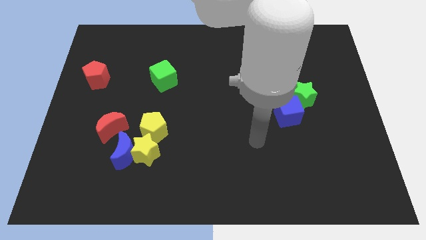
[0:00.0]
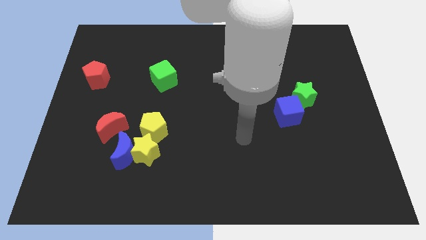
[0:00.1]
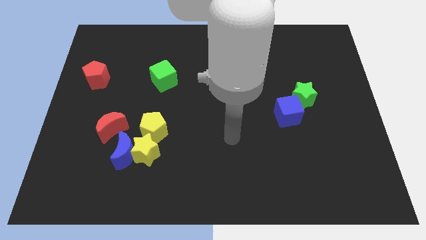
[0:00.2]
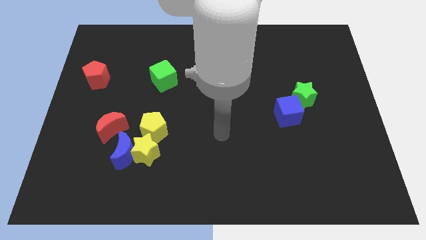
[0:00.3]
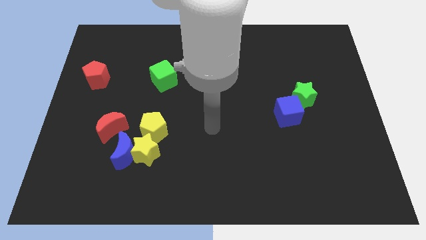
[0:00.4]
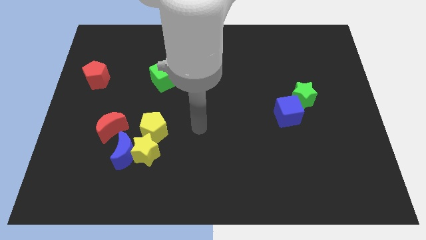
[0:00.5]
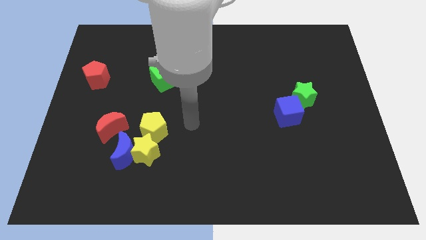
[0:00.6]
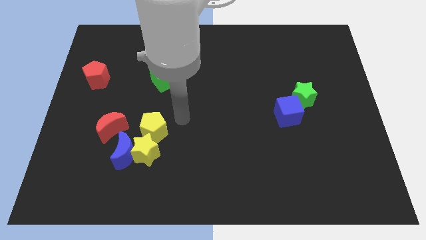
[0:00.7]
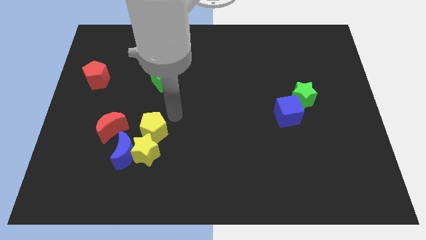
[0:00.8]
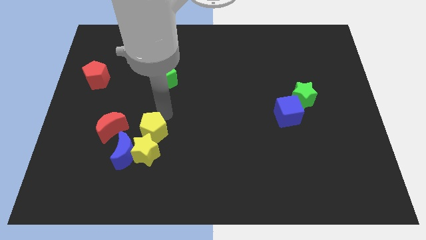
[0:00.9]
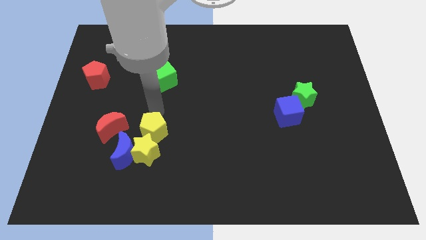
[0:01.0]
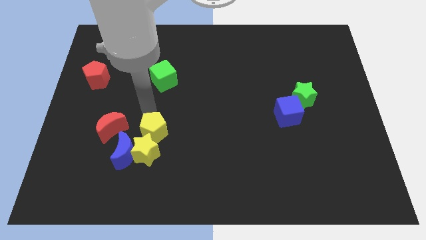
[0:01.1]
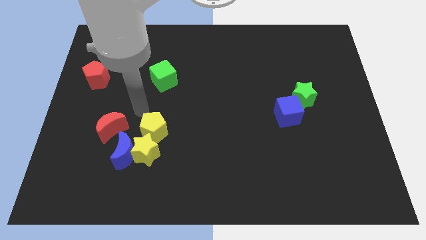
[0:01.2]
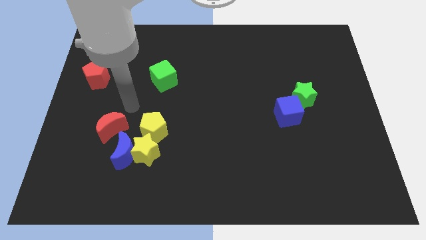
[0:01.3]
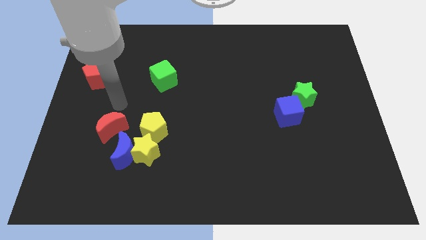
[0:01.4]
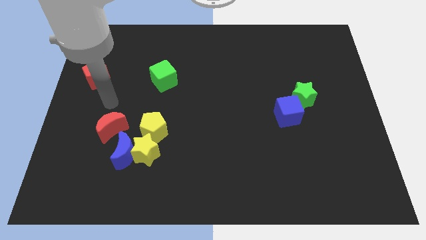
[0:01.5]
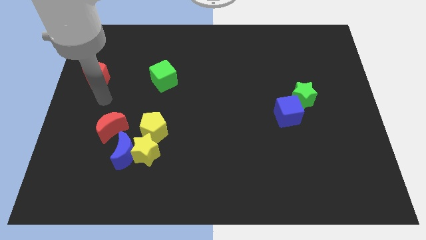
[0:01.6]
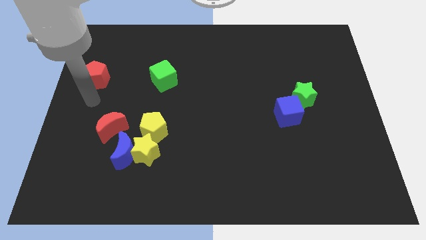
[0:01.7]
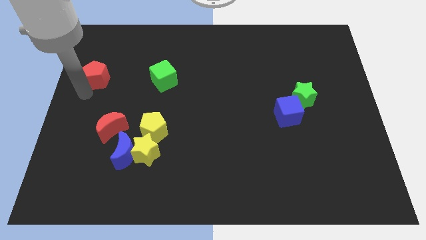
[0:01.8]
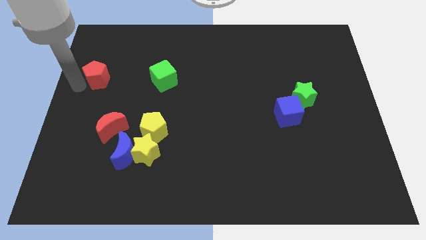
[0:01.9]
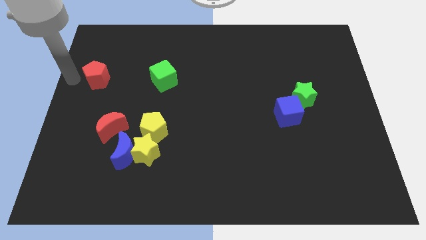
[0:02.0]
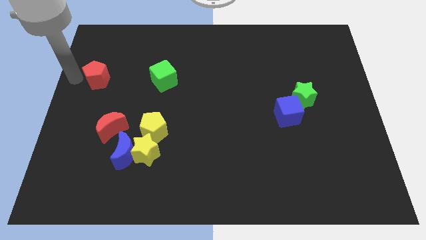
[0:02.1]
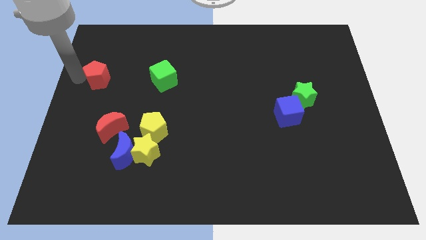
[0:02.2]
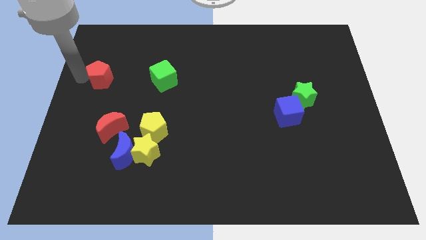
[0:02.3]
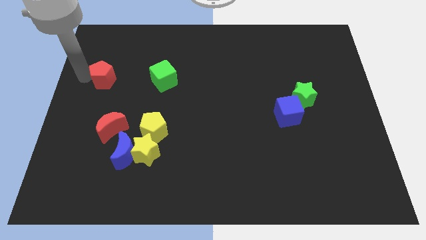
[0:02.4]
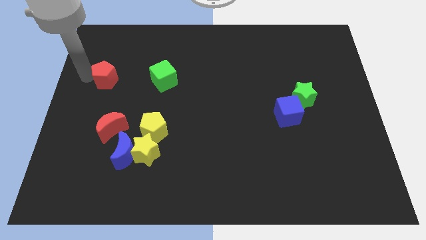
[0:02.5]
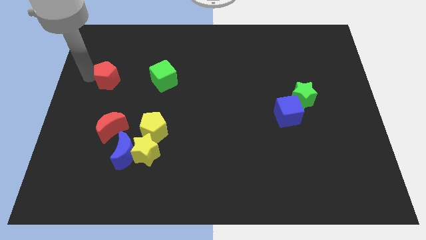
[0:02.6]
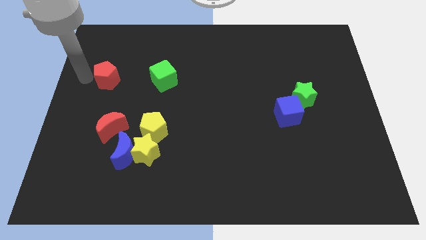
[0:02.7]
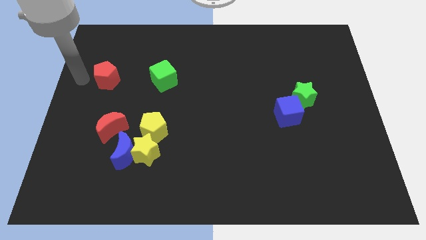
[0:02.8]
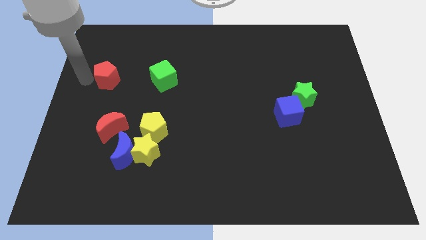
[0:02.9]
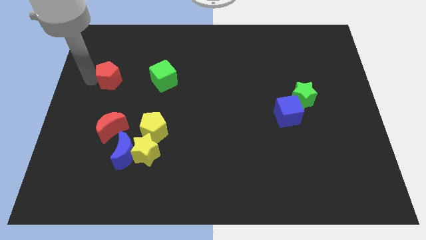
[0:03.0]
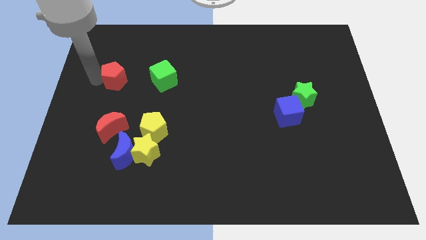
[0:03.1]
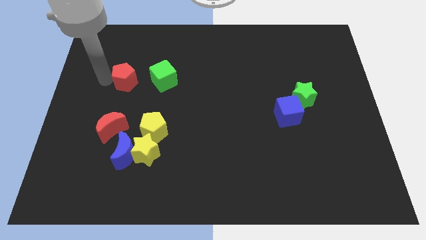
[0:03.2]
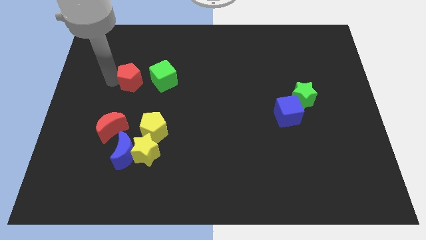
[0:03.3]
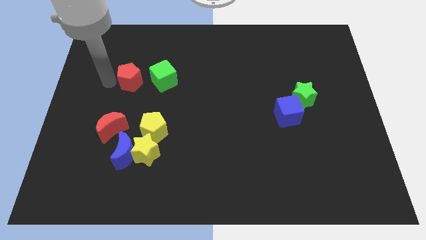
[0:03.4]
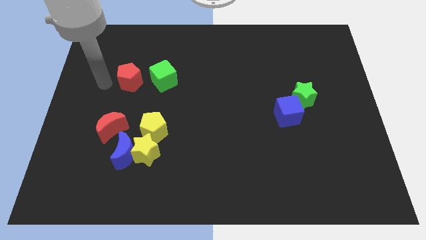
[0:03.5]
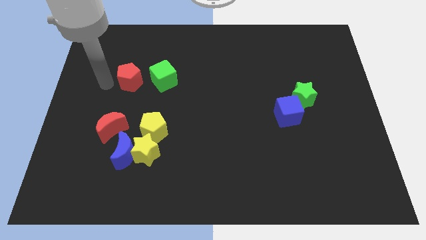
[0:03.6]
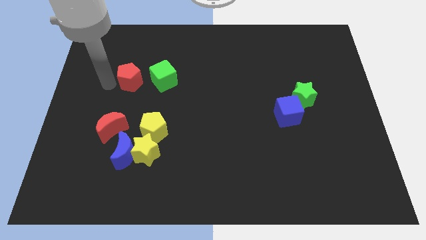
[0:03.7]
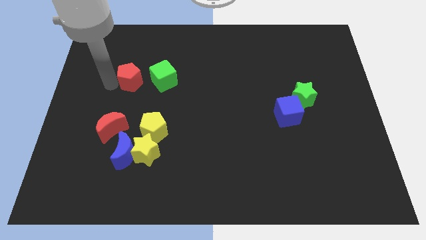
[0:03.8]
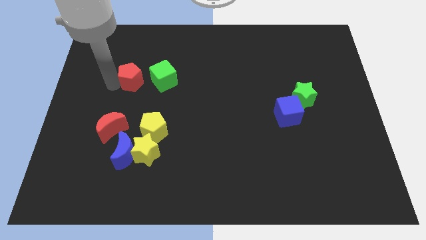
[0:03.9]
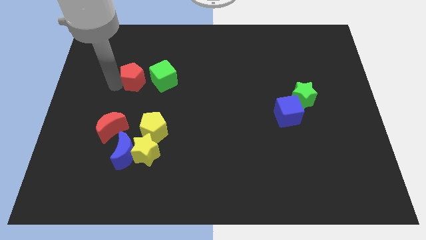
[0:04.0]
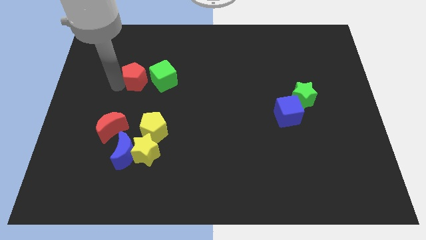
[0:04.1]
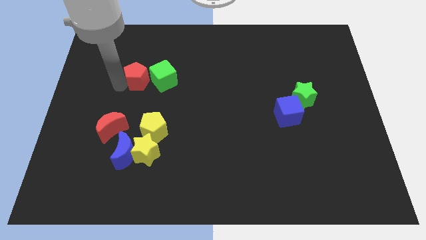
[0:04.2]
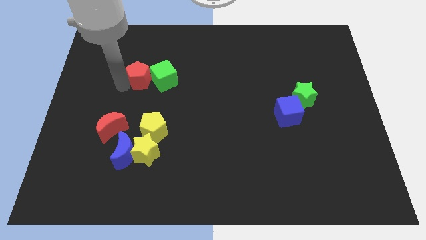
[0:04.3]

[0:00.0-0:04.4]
push the red pentagon to the green cube

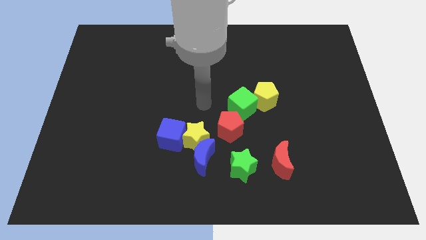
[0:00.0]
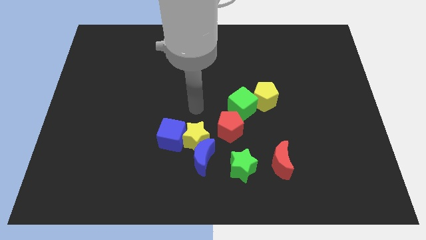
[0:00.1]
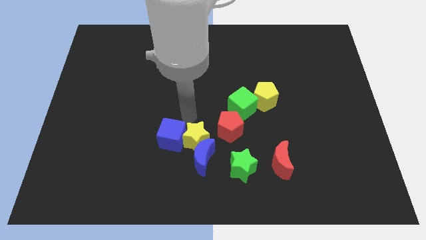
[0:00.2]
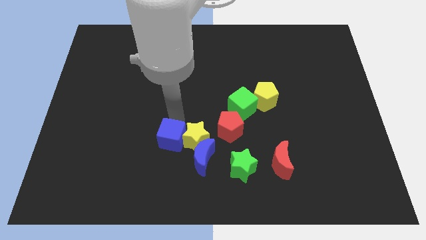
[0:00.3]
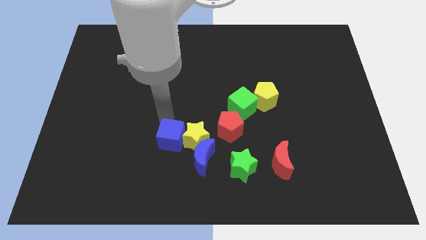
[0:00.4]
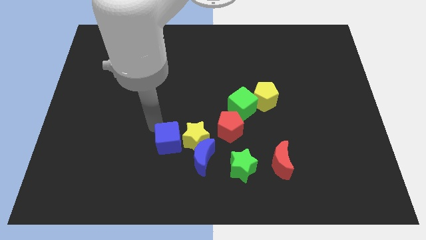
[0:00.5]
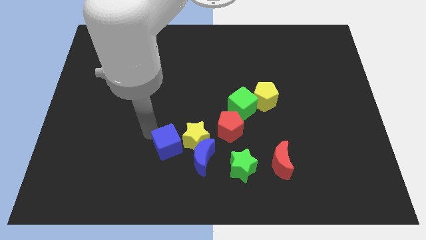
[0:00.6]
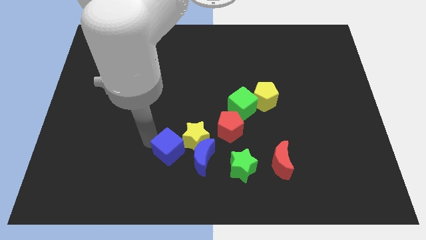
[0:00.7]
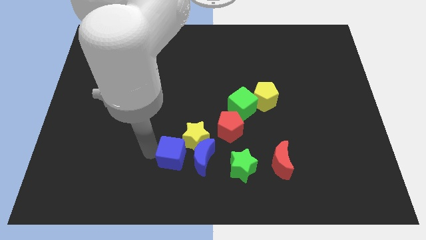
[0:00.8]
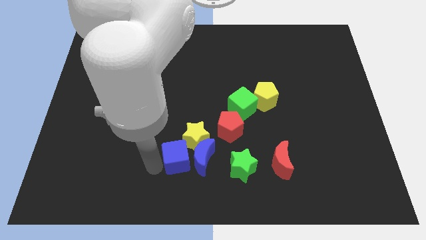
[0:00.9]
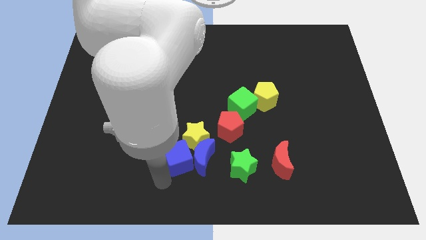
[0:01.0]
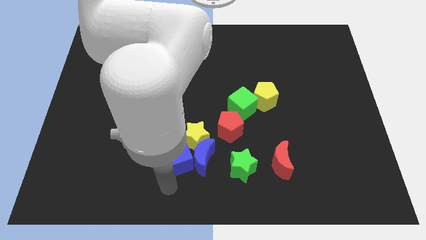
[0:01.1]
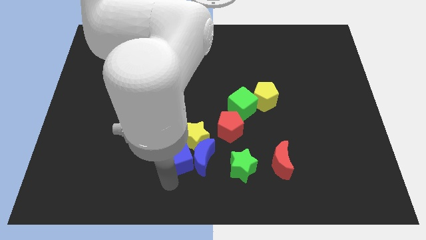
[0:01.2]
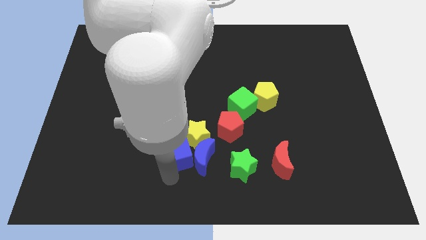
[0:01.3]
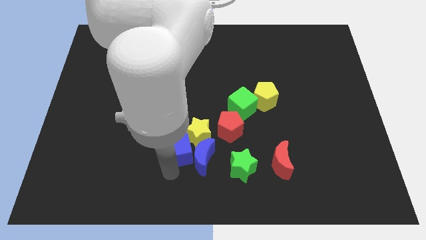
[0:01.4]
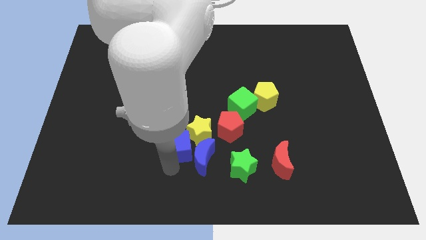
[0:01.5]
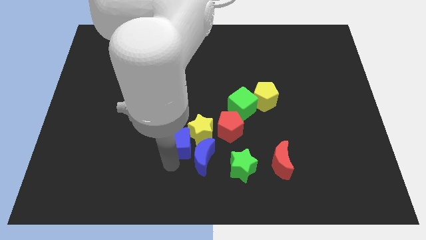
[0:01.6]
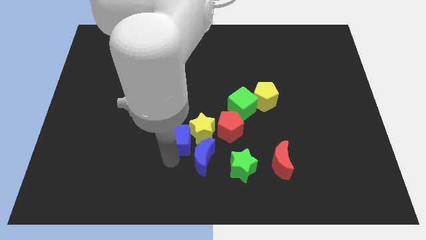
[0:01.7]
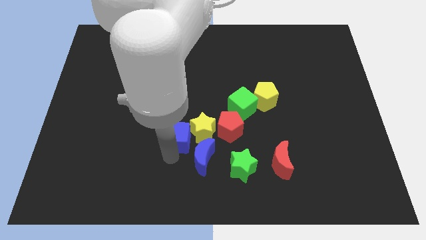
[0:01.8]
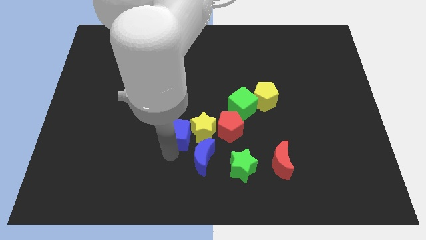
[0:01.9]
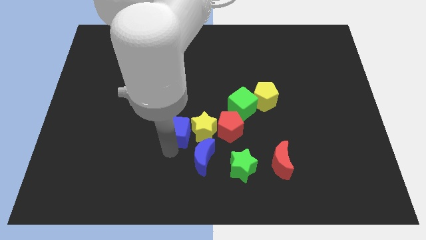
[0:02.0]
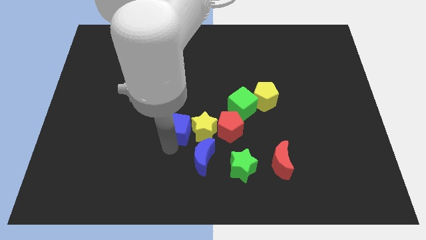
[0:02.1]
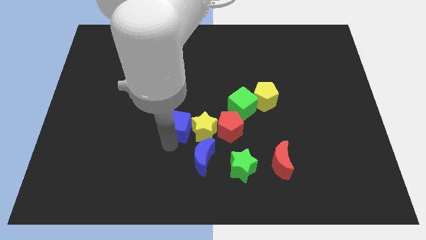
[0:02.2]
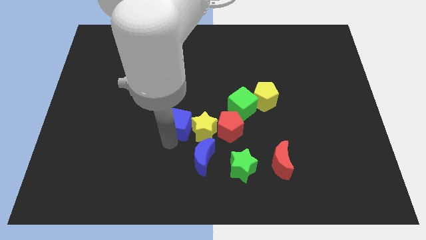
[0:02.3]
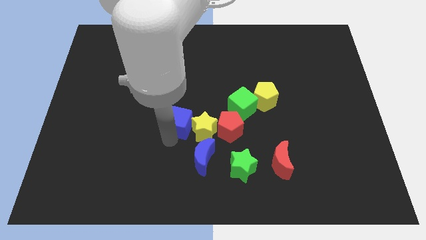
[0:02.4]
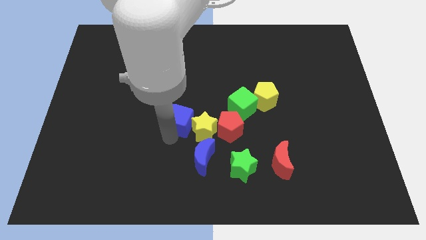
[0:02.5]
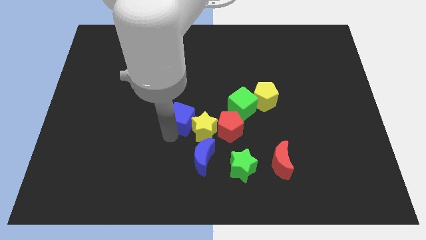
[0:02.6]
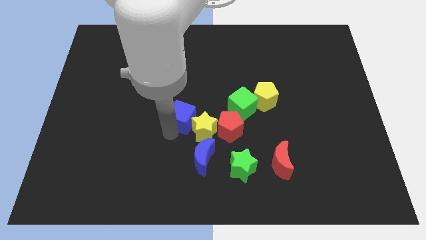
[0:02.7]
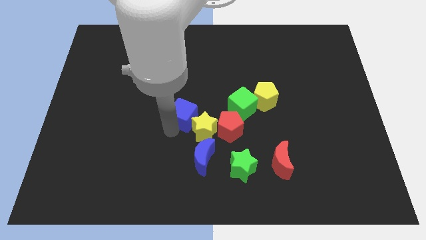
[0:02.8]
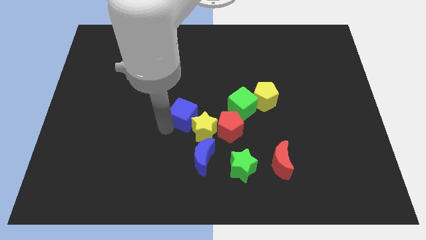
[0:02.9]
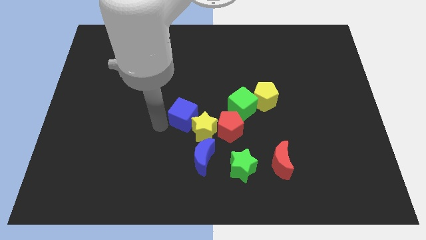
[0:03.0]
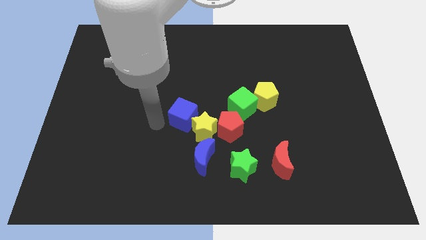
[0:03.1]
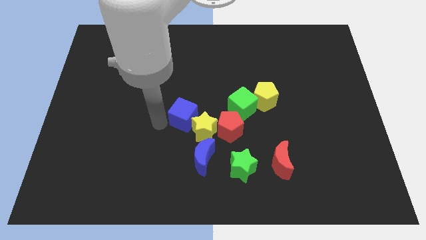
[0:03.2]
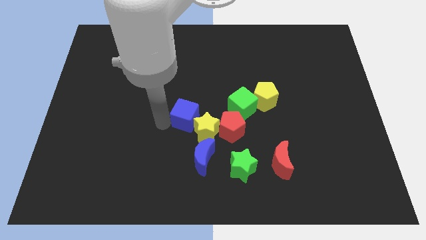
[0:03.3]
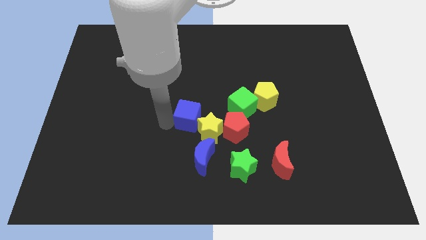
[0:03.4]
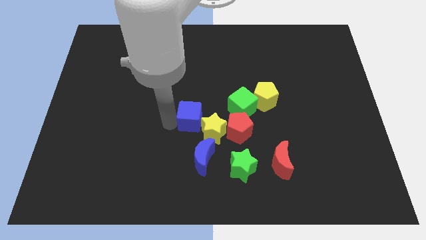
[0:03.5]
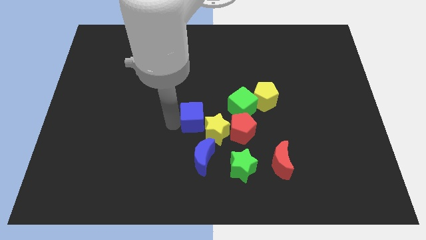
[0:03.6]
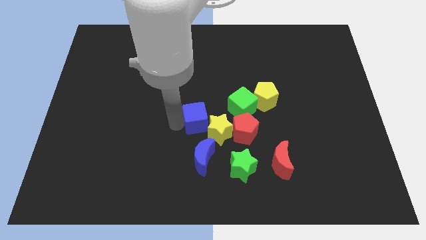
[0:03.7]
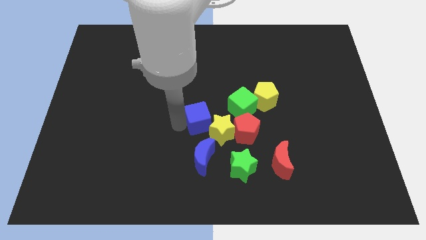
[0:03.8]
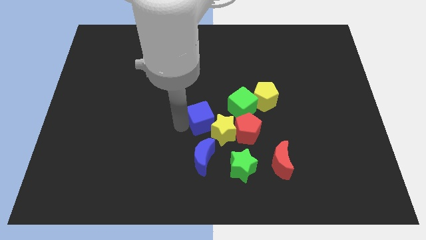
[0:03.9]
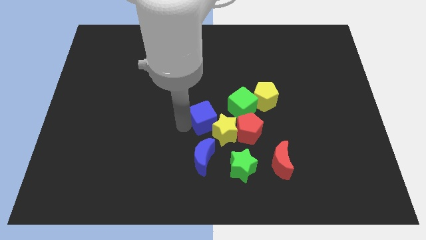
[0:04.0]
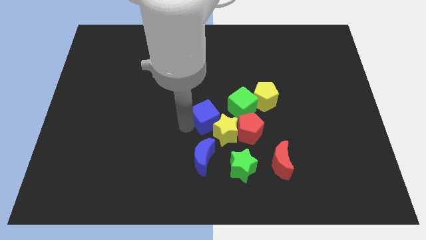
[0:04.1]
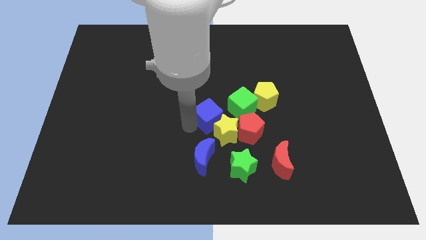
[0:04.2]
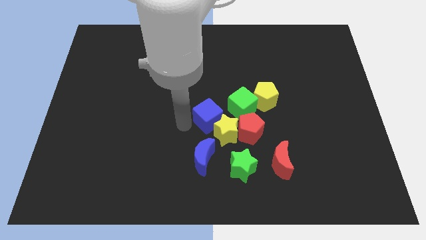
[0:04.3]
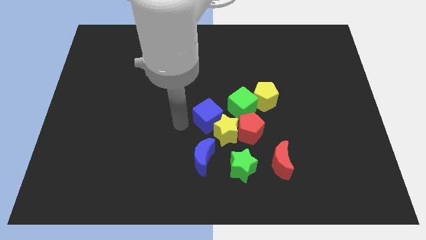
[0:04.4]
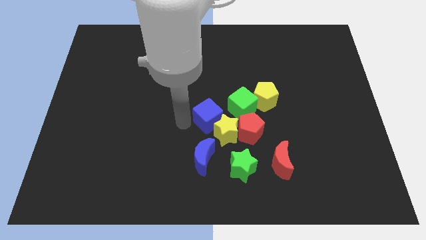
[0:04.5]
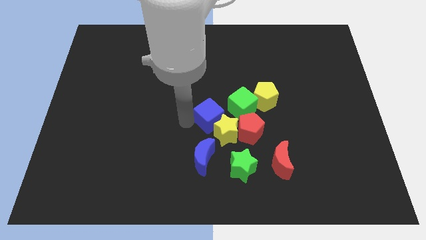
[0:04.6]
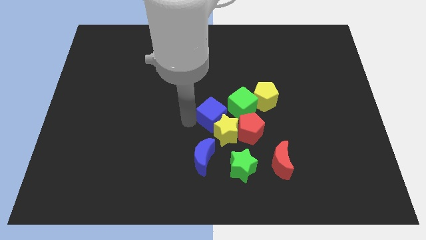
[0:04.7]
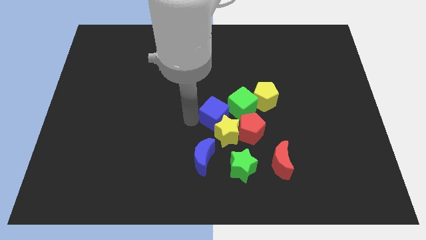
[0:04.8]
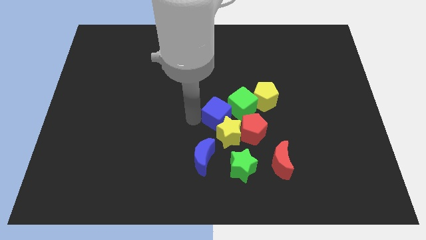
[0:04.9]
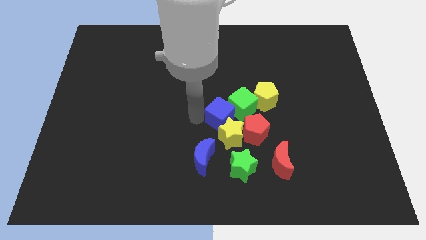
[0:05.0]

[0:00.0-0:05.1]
put the blue cube to the green cube
